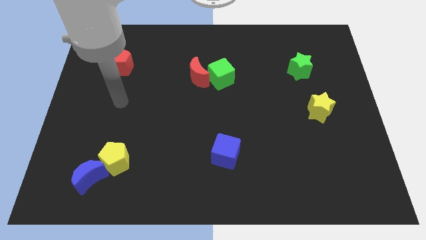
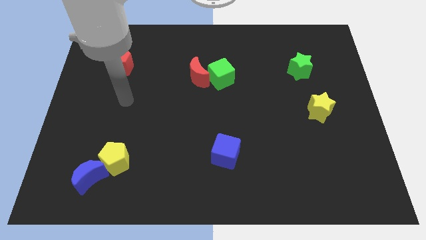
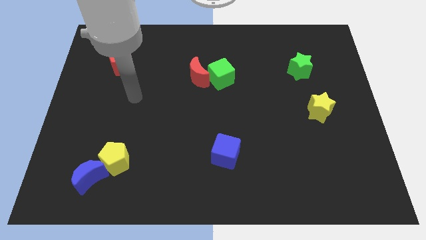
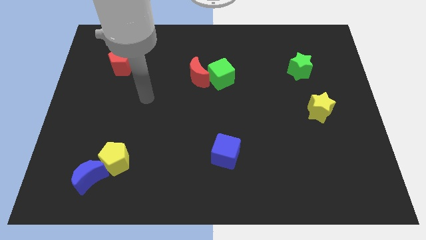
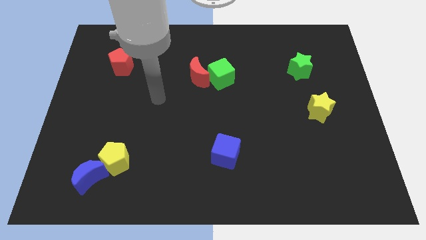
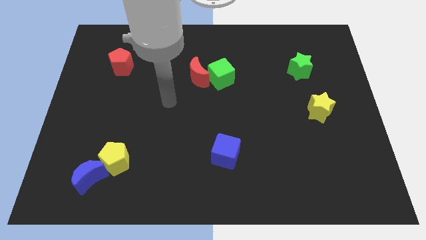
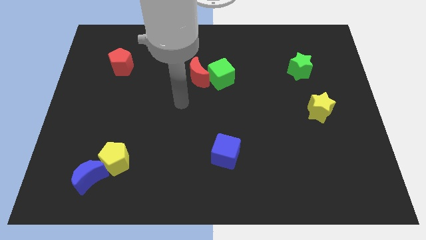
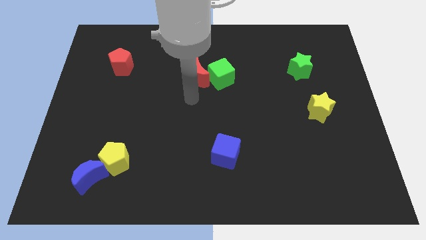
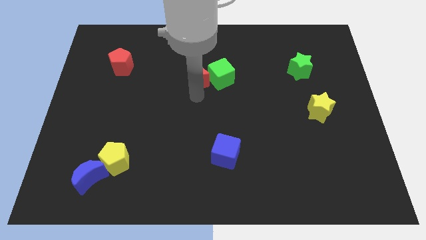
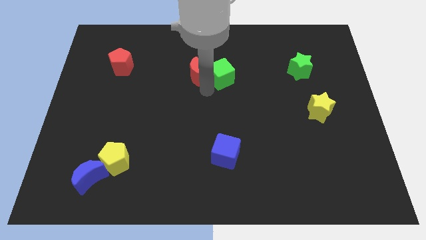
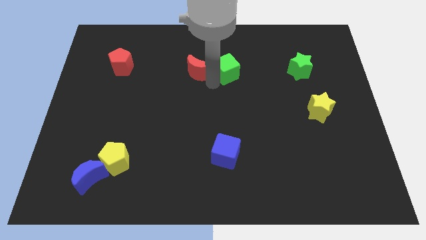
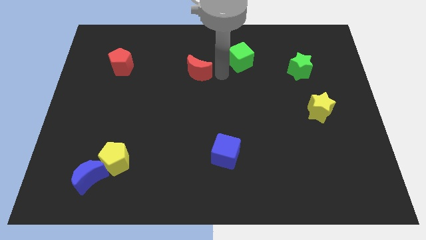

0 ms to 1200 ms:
pull the red moon apart from the green cube

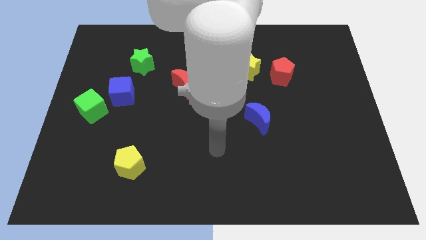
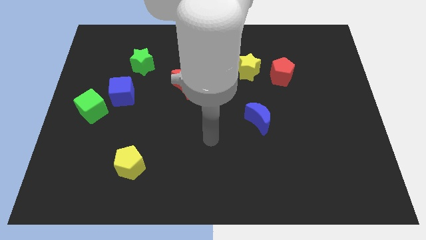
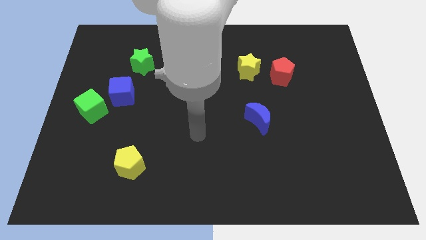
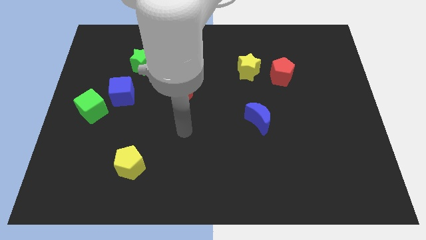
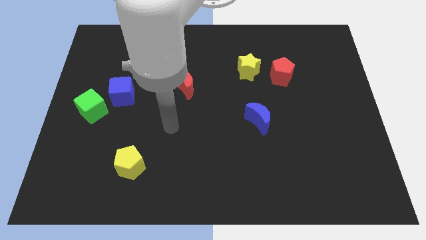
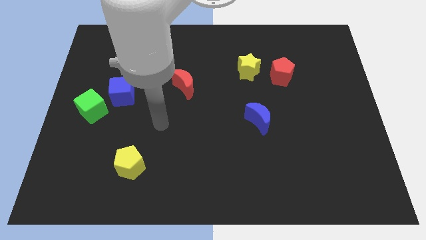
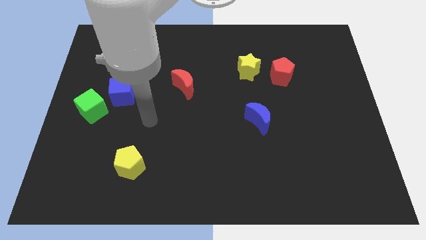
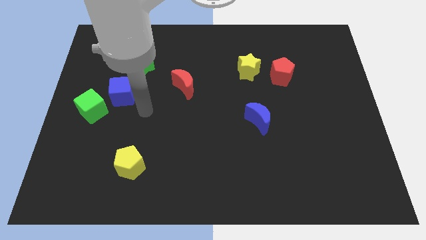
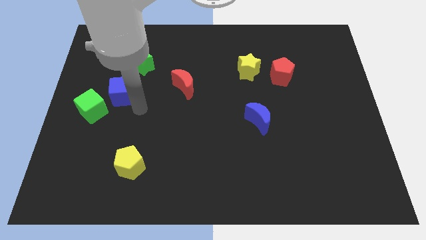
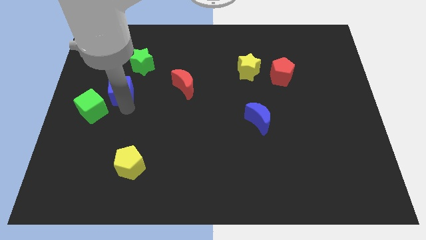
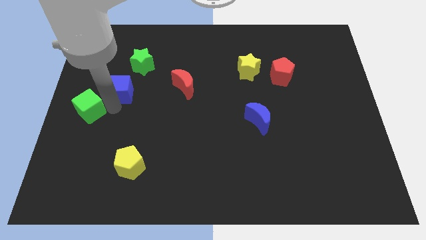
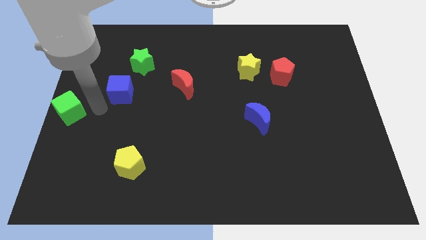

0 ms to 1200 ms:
pull the blue cube apart from the green cube

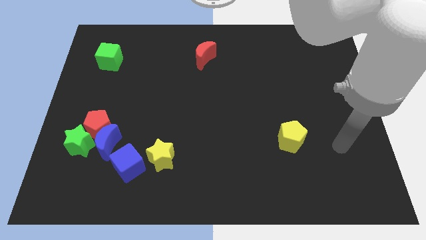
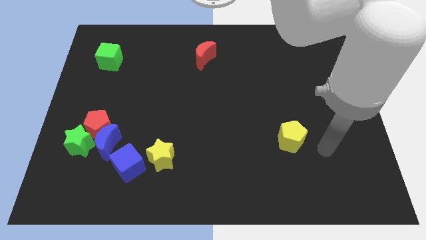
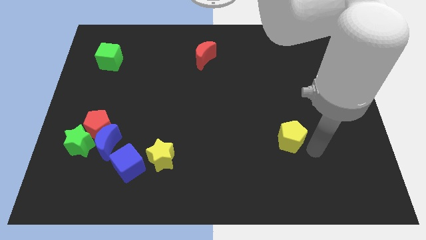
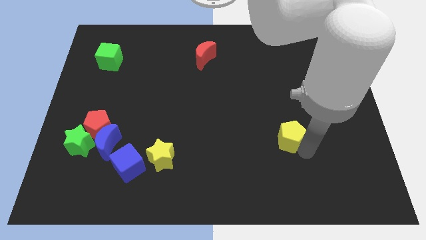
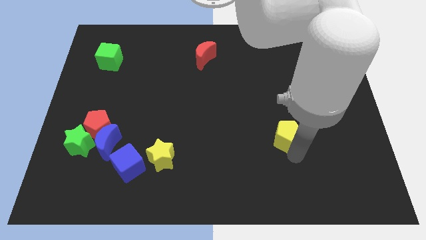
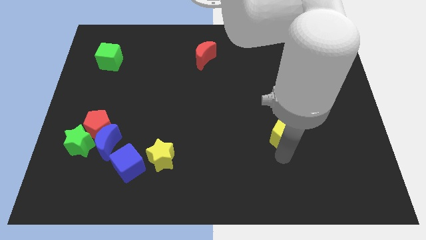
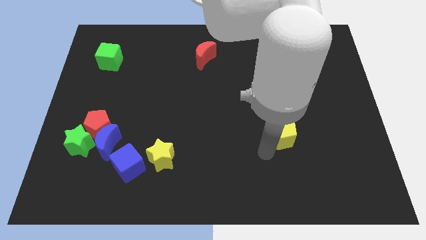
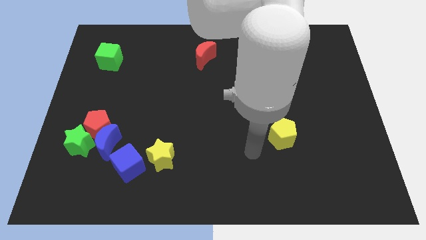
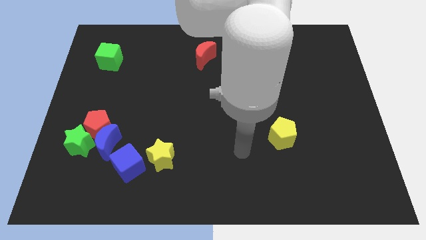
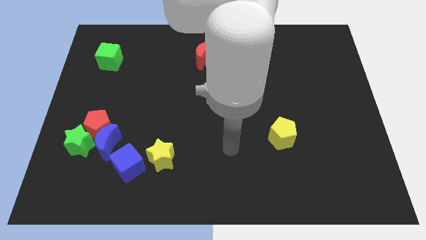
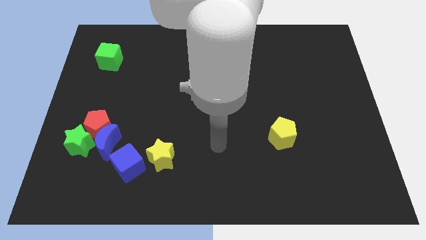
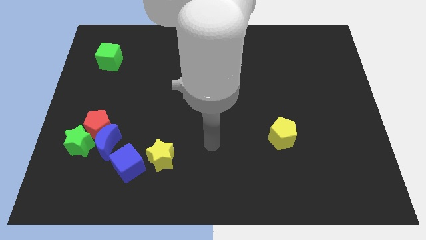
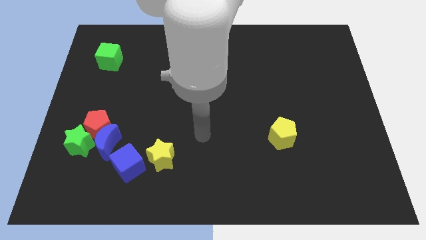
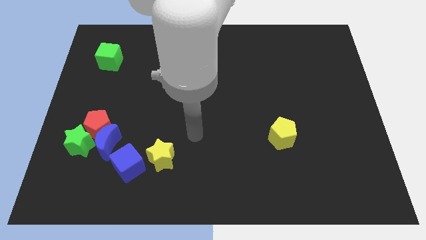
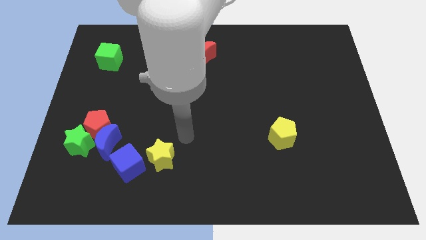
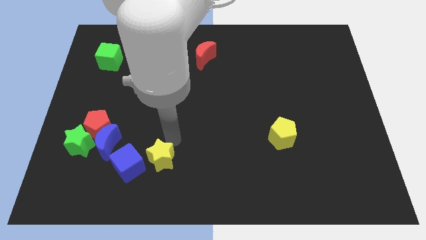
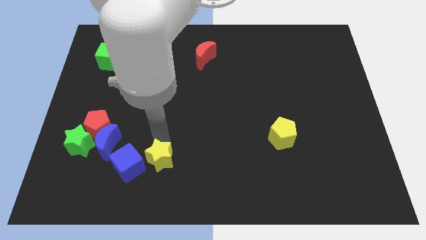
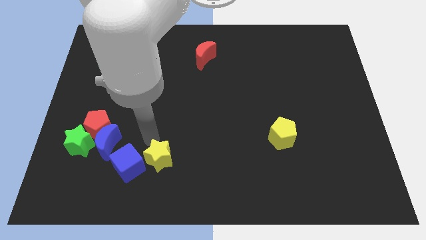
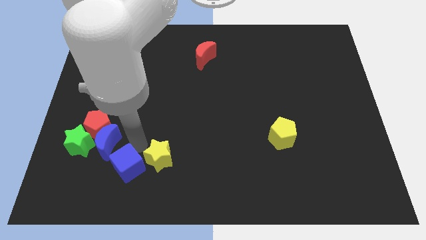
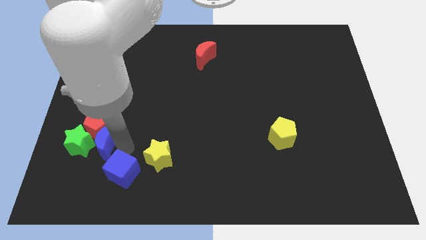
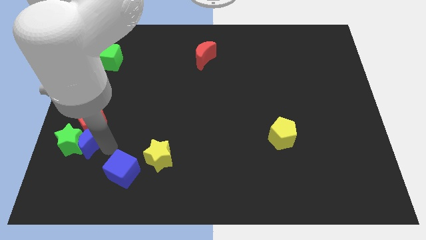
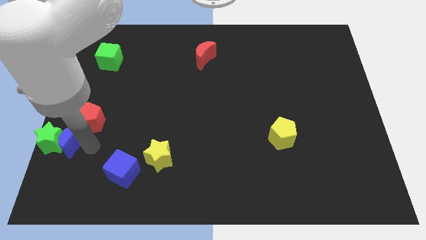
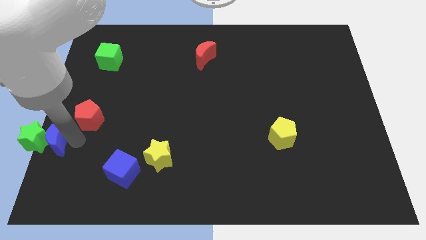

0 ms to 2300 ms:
separate the red pentagon from the blue moon and green star

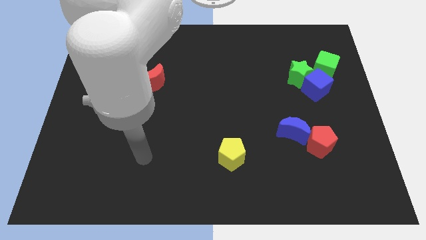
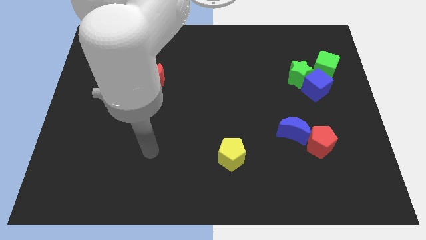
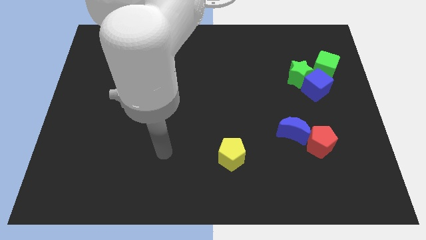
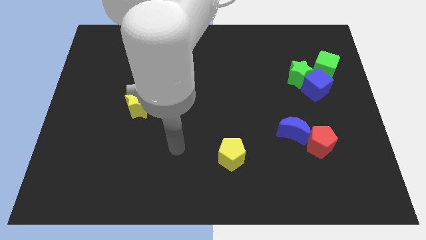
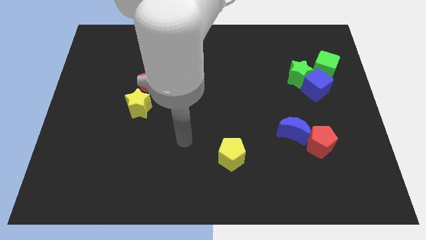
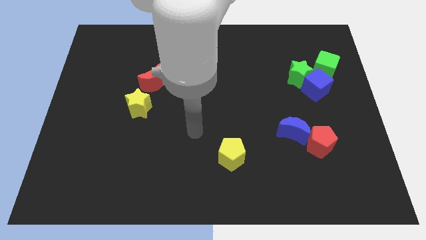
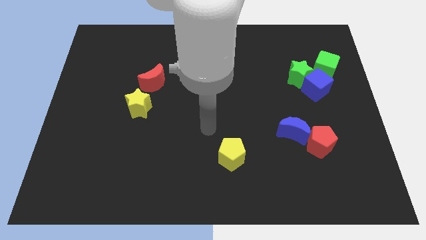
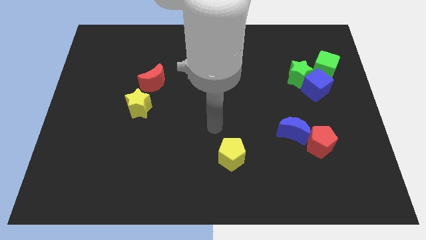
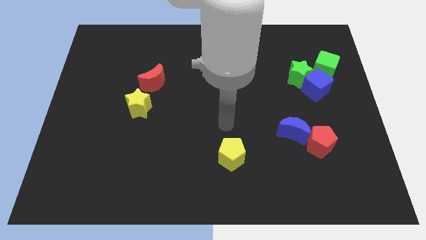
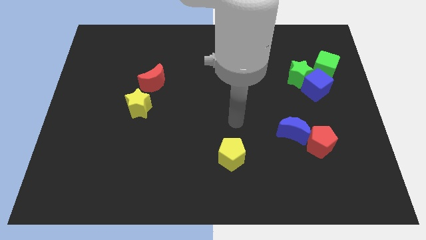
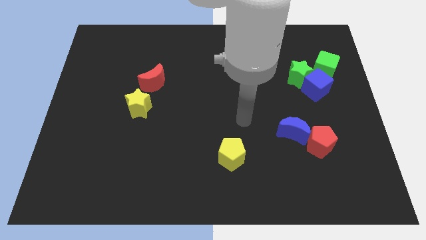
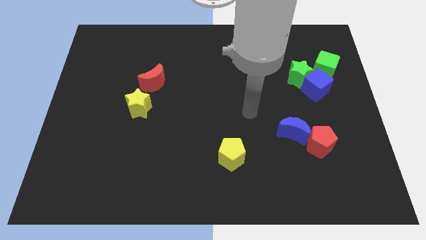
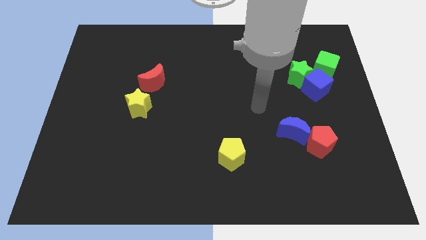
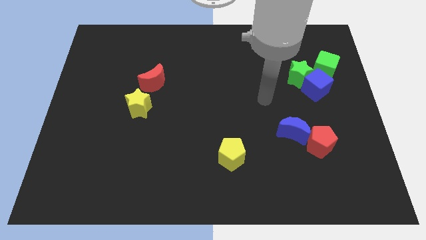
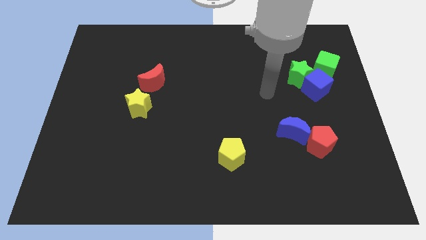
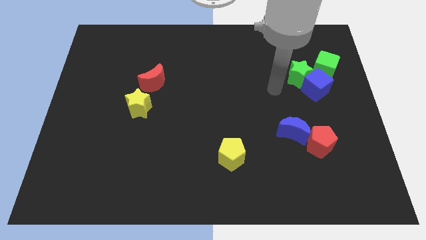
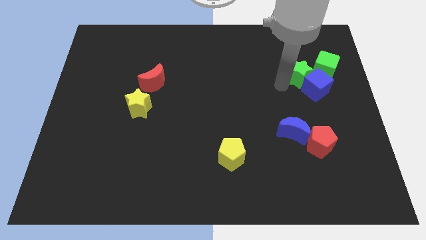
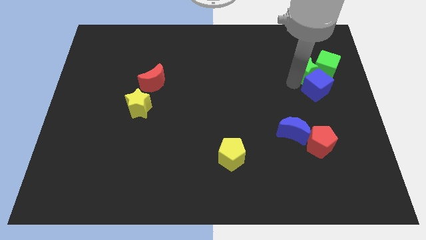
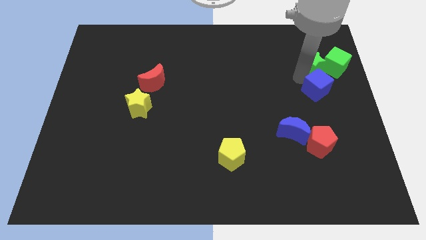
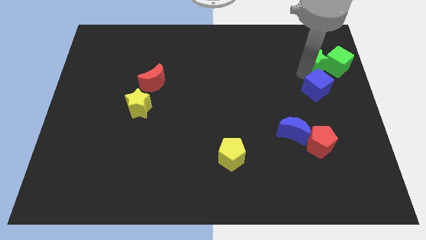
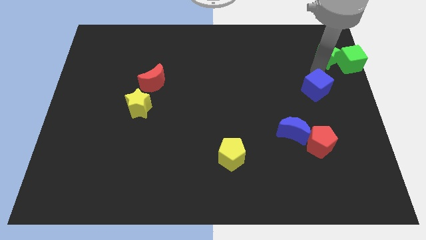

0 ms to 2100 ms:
move the blue cube away from the green star and green cube

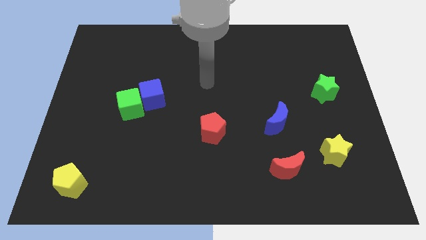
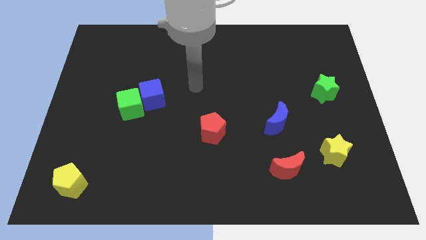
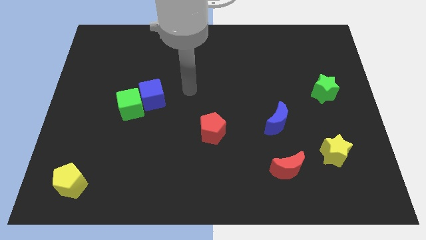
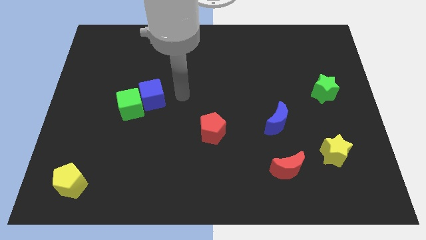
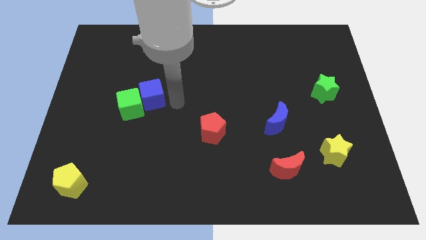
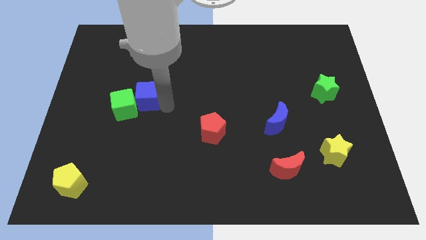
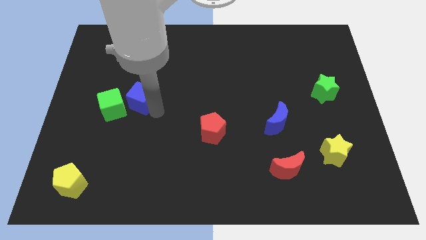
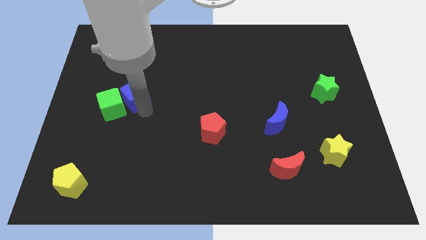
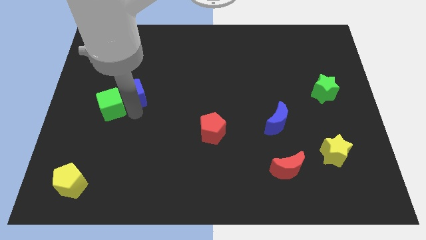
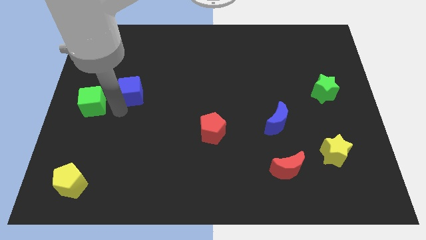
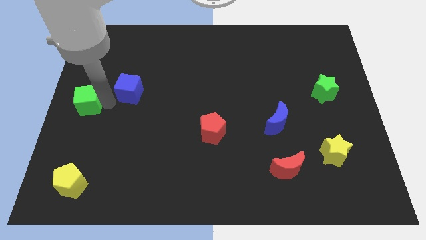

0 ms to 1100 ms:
separate the blue cube from the green cube

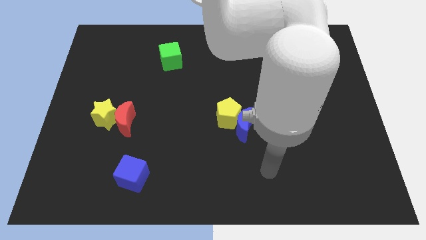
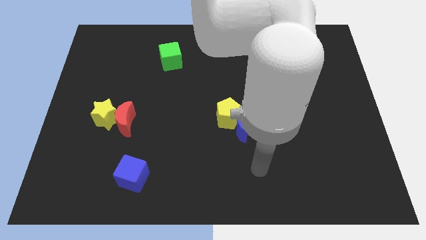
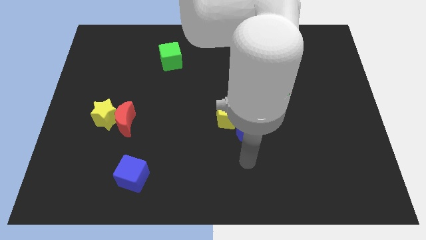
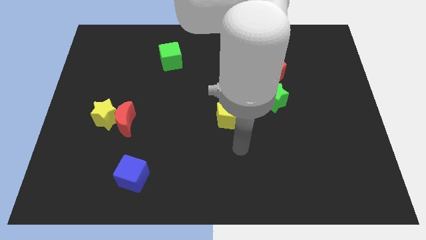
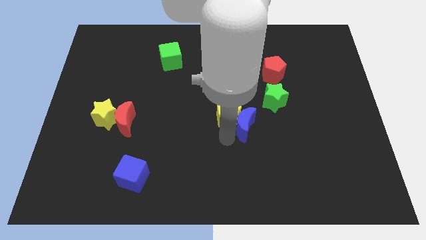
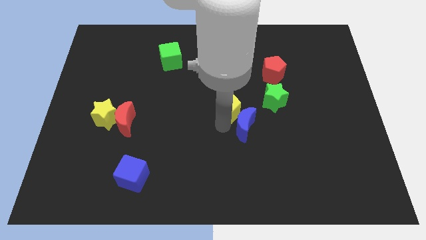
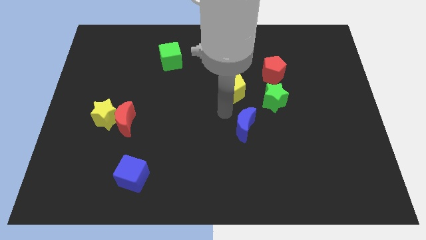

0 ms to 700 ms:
separate the blue moon from the yellow pentagon

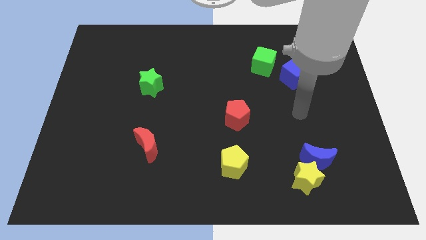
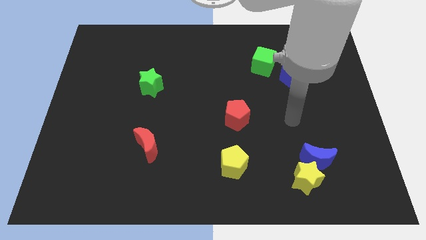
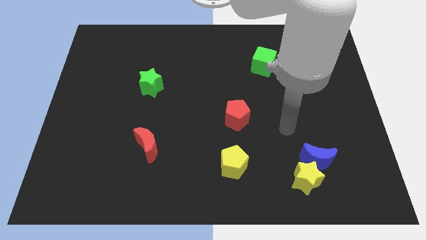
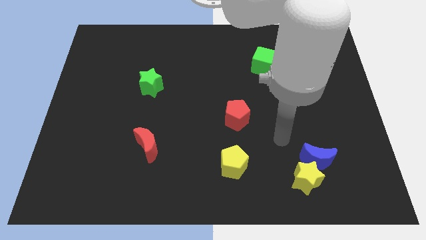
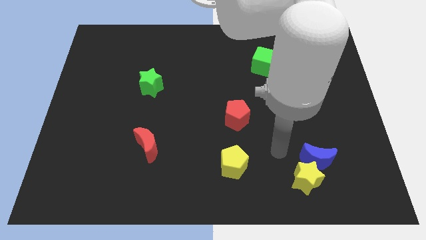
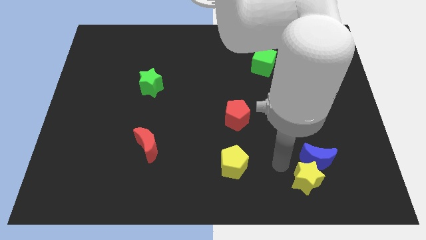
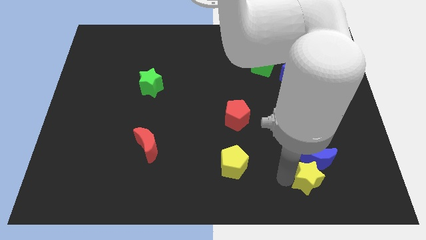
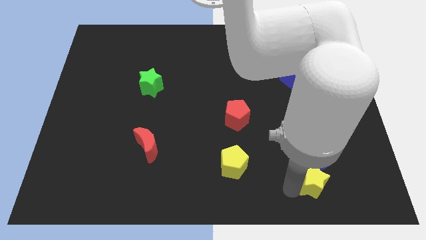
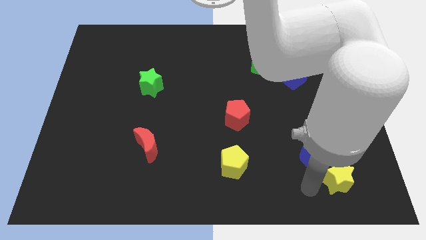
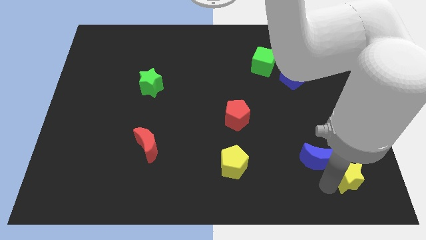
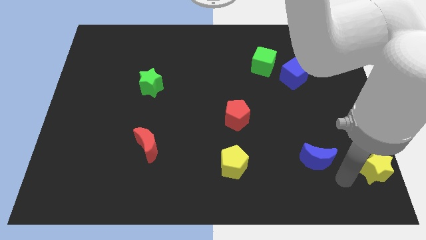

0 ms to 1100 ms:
separate the blue moon from the yellow star
